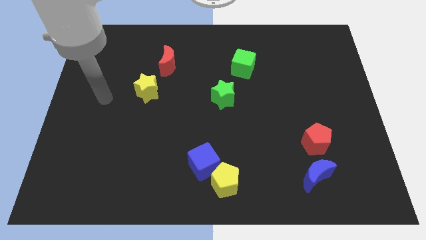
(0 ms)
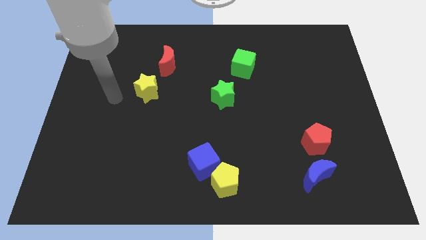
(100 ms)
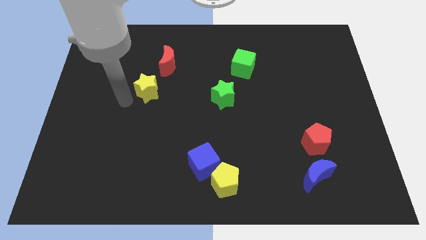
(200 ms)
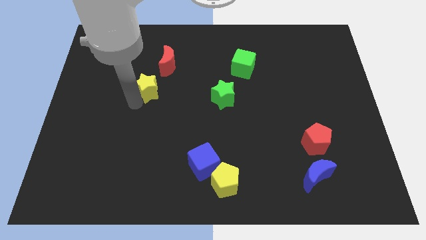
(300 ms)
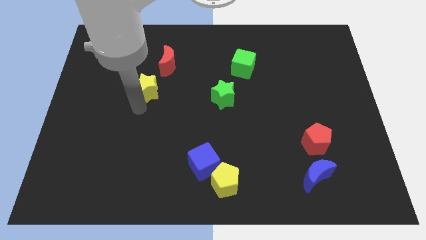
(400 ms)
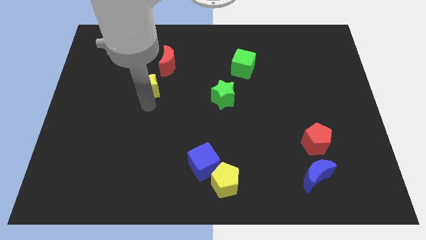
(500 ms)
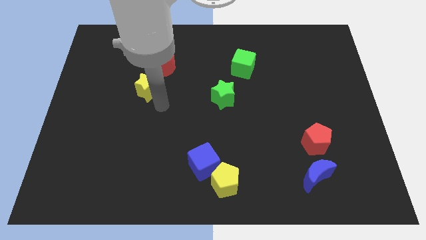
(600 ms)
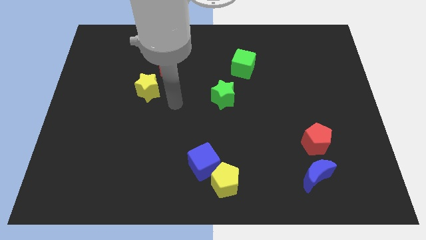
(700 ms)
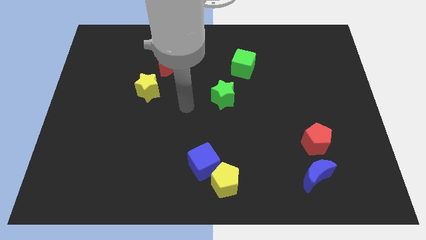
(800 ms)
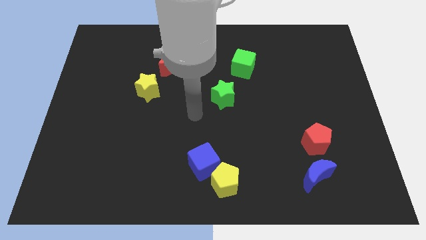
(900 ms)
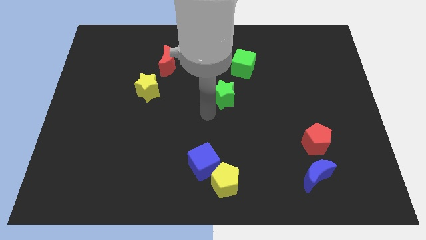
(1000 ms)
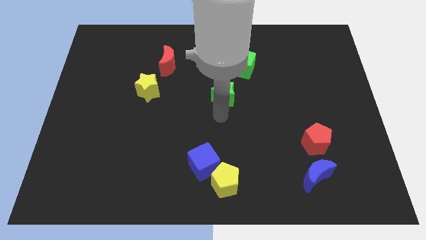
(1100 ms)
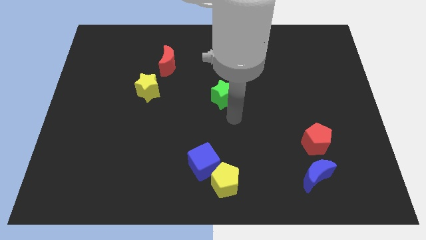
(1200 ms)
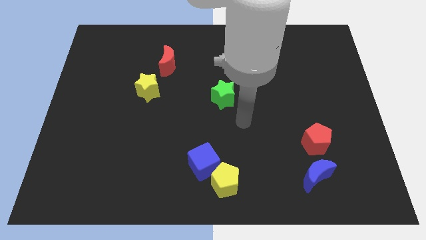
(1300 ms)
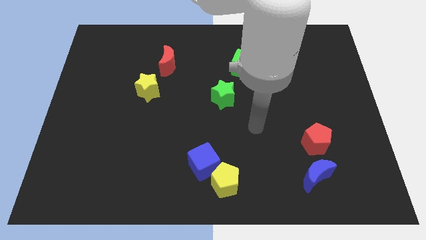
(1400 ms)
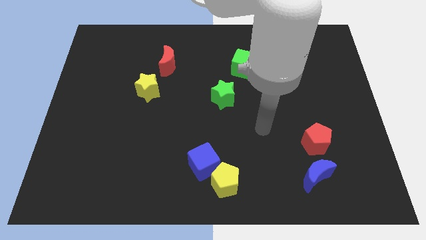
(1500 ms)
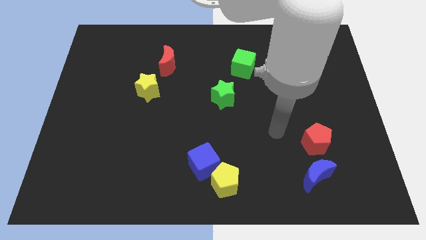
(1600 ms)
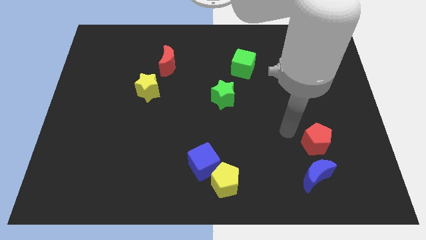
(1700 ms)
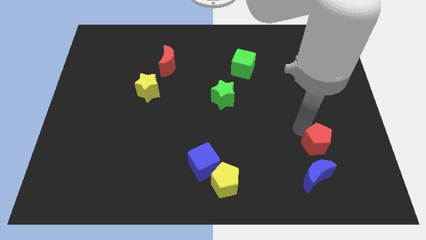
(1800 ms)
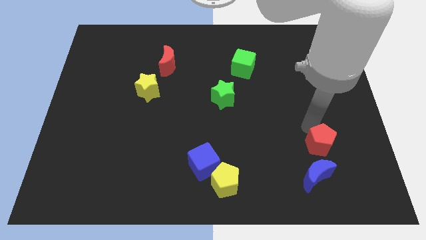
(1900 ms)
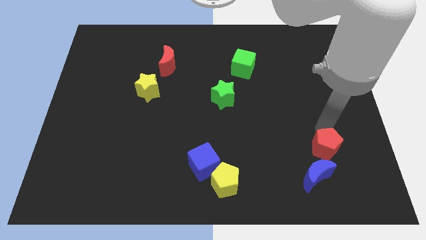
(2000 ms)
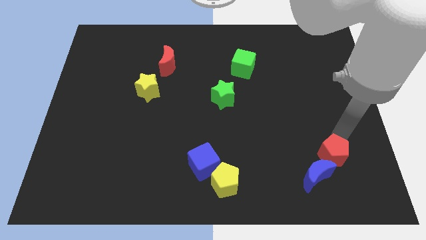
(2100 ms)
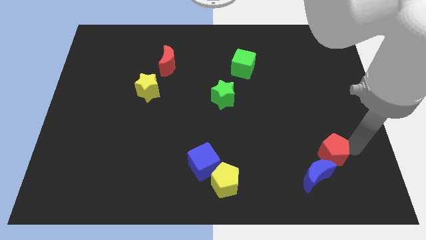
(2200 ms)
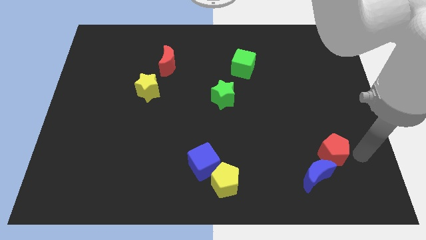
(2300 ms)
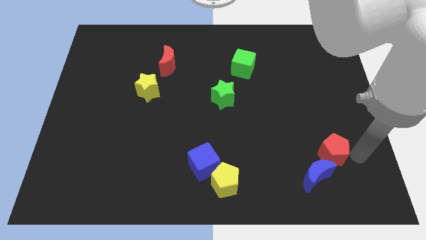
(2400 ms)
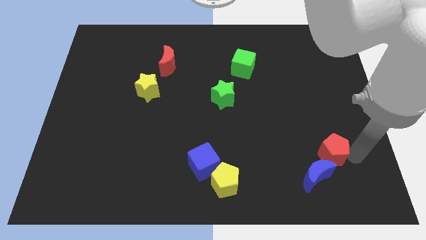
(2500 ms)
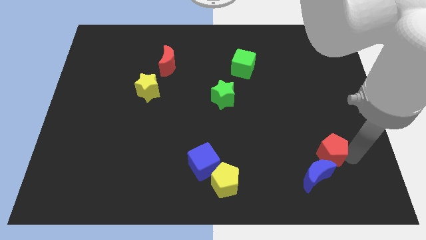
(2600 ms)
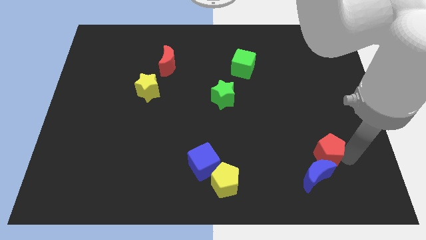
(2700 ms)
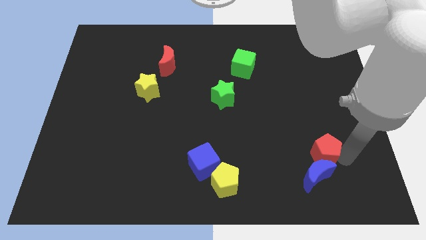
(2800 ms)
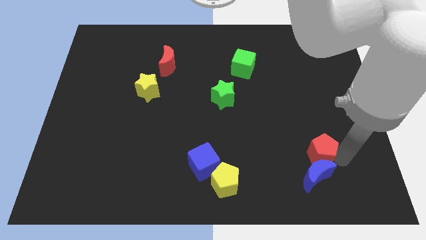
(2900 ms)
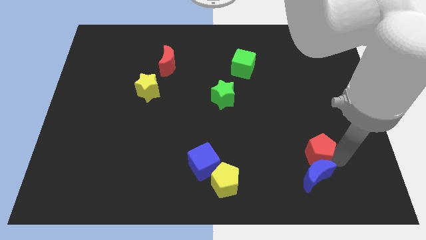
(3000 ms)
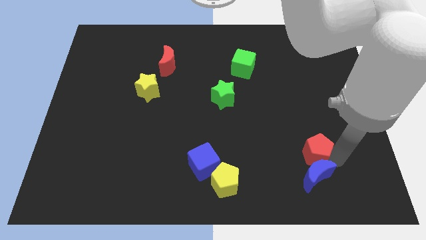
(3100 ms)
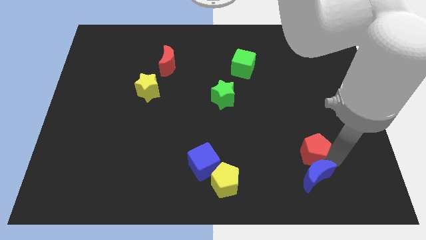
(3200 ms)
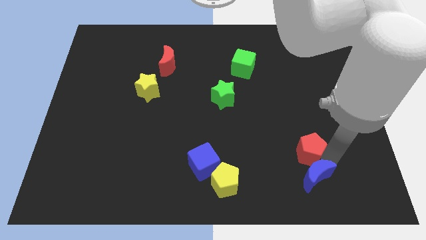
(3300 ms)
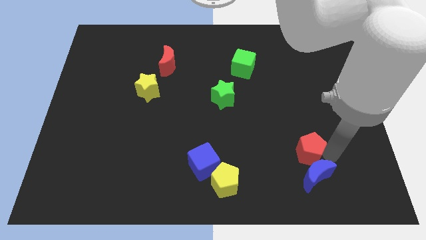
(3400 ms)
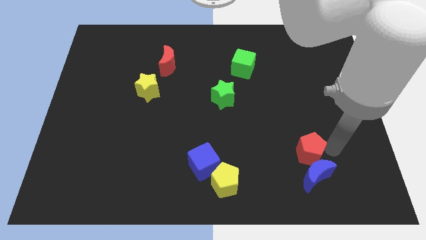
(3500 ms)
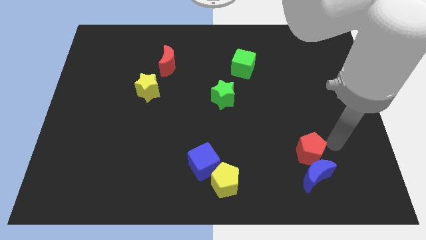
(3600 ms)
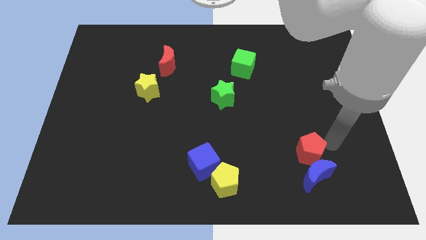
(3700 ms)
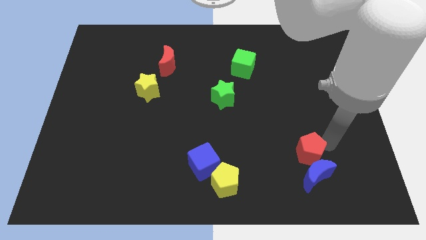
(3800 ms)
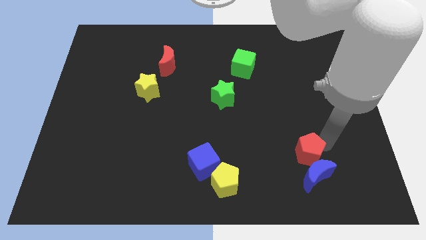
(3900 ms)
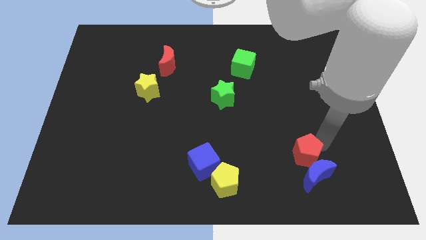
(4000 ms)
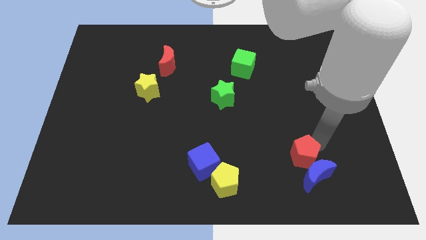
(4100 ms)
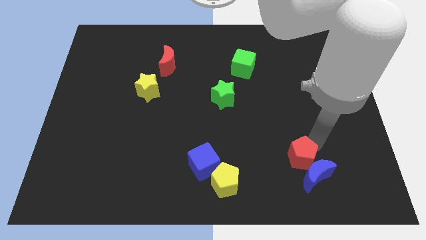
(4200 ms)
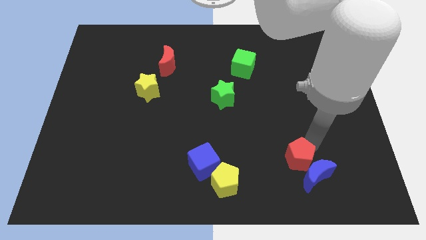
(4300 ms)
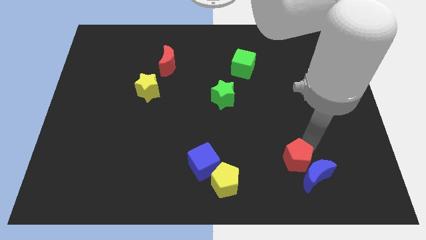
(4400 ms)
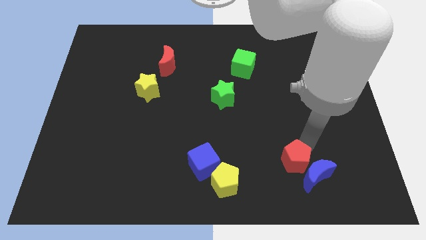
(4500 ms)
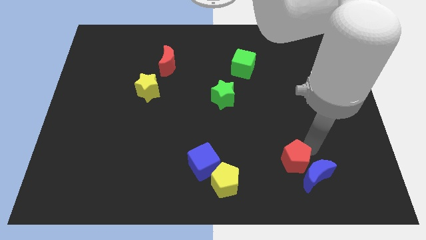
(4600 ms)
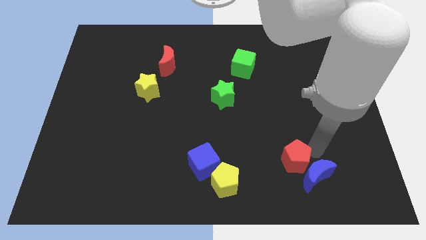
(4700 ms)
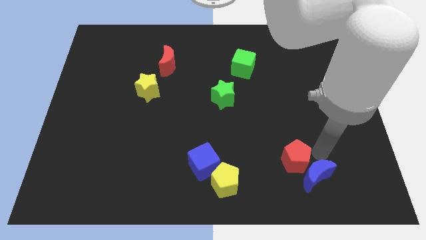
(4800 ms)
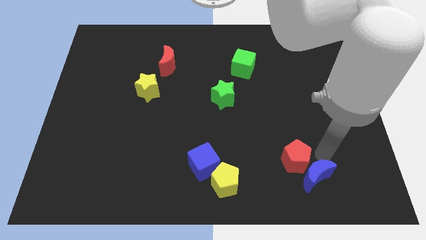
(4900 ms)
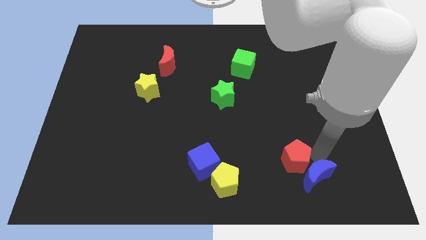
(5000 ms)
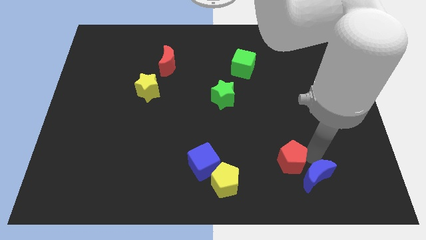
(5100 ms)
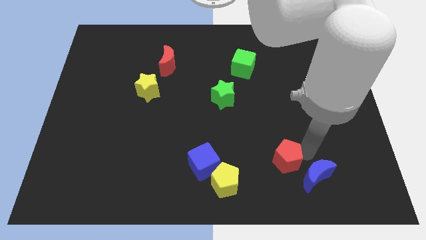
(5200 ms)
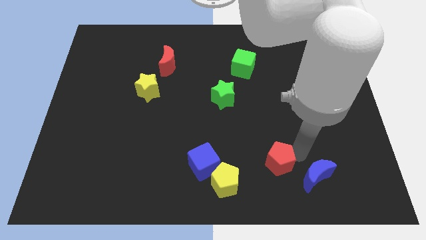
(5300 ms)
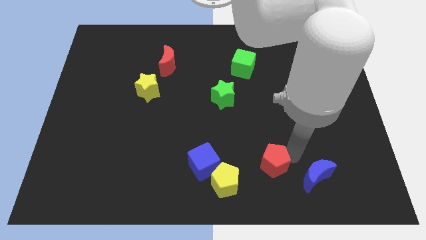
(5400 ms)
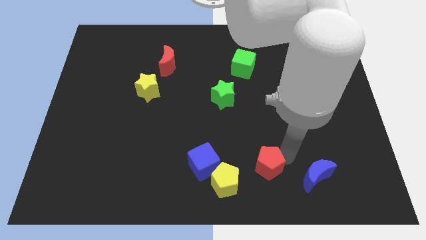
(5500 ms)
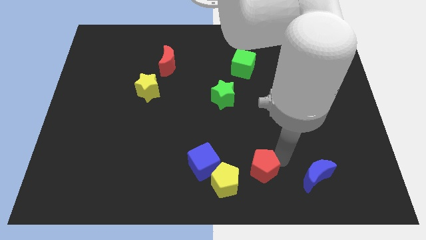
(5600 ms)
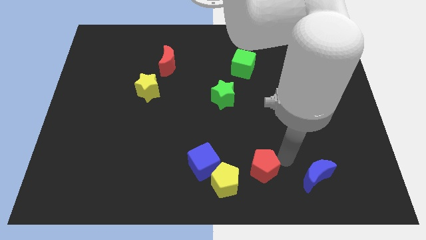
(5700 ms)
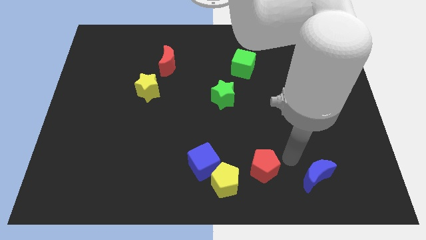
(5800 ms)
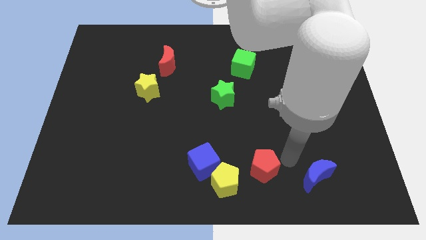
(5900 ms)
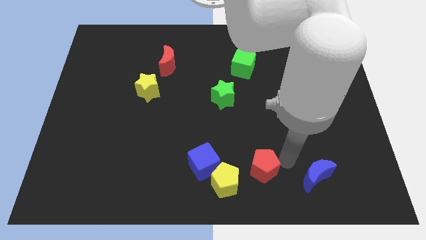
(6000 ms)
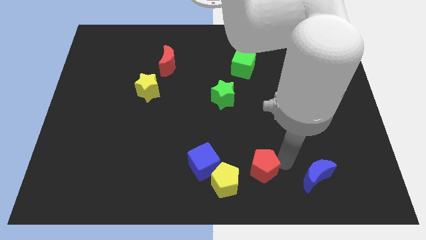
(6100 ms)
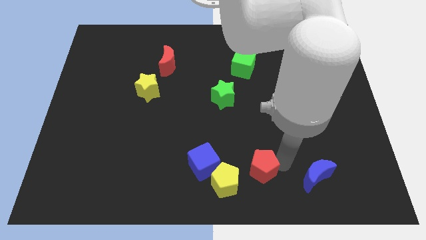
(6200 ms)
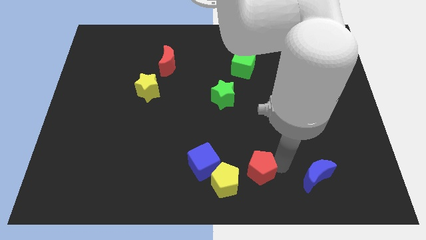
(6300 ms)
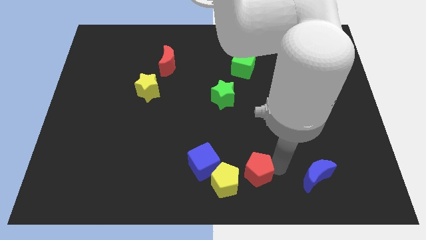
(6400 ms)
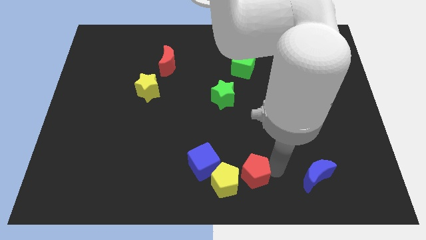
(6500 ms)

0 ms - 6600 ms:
slide the red pentagon close to the yellow pentagon
